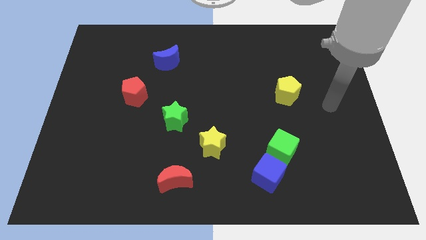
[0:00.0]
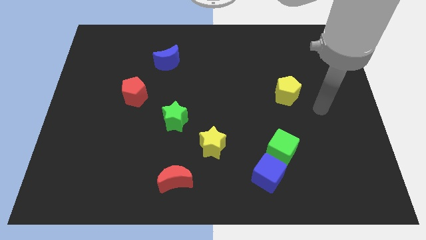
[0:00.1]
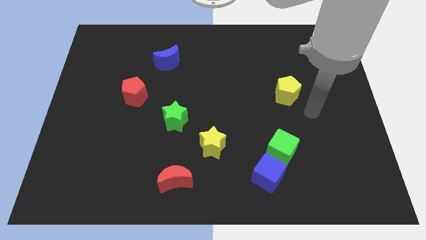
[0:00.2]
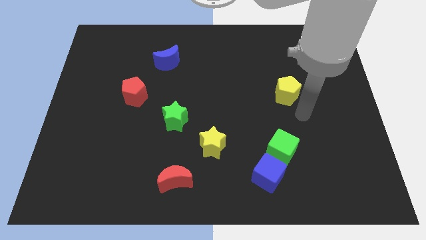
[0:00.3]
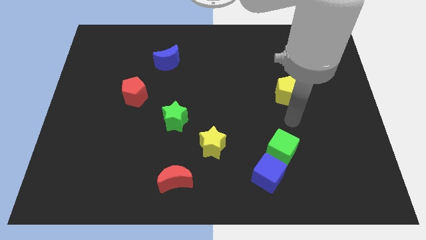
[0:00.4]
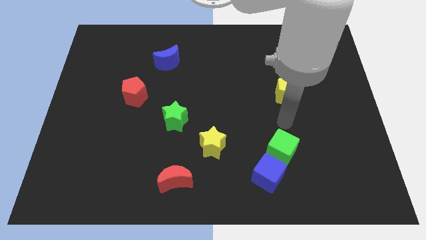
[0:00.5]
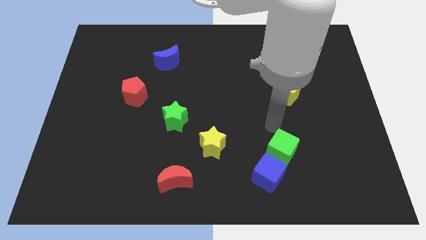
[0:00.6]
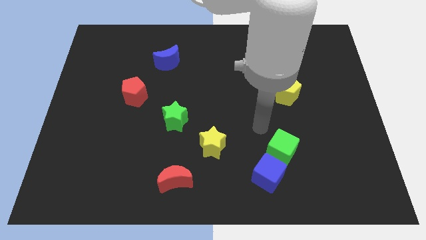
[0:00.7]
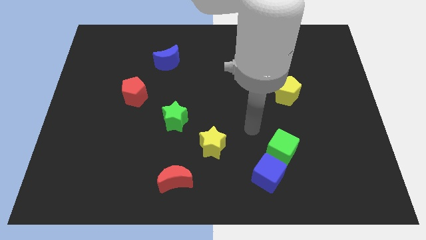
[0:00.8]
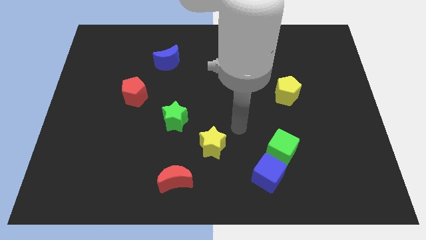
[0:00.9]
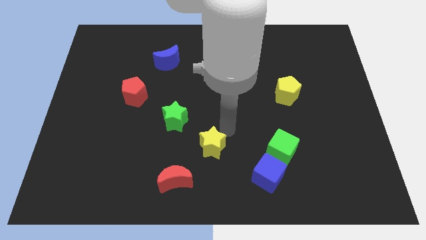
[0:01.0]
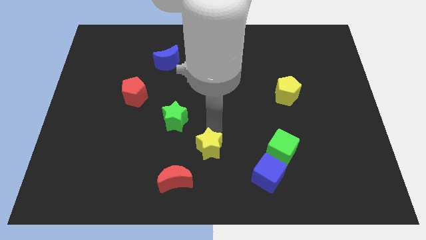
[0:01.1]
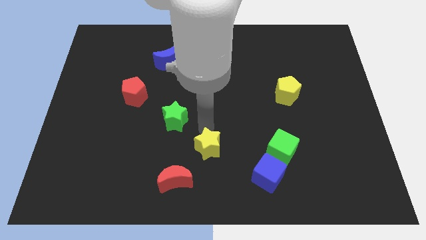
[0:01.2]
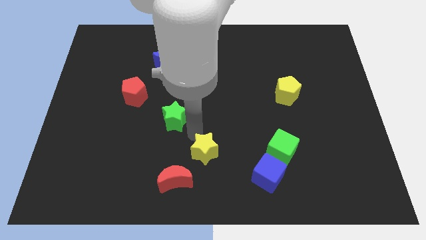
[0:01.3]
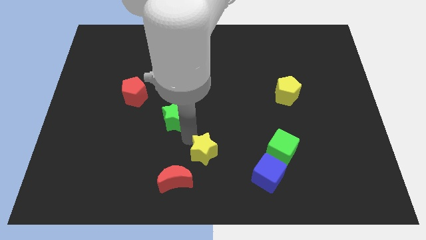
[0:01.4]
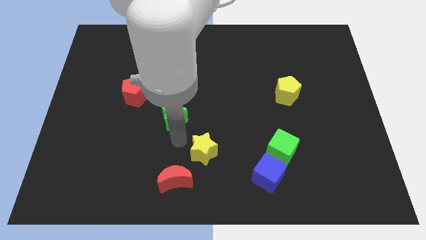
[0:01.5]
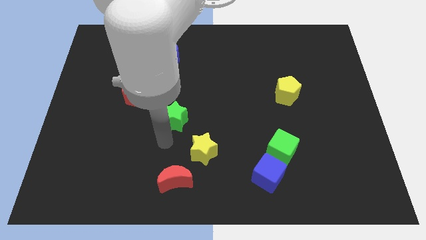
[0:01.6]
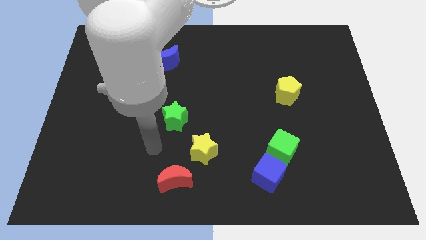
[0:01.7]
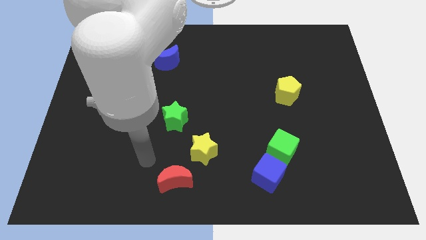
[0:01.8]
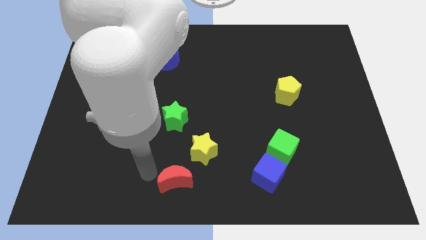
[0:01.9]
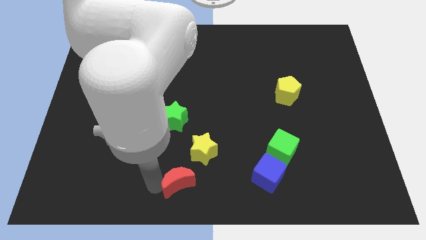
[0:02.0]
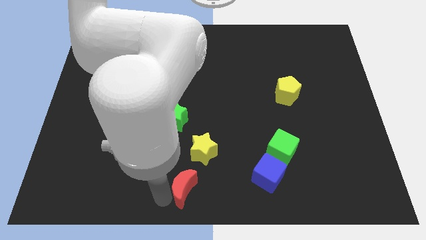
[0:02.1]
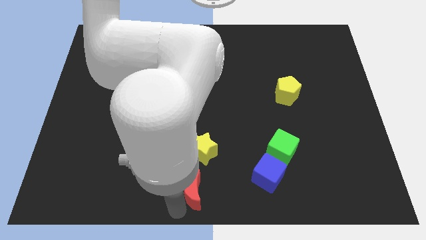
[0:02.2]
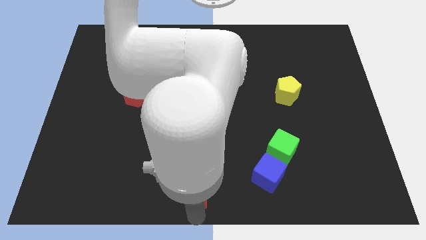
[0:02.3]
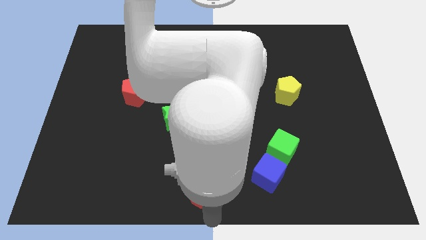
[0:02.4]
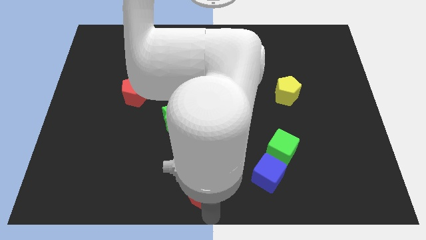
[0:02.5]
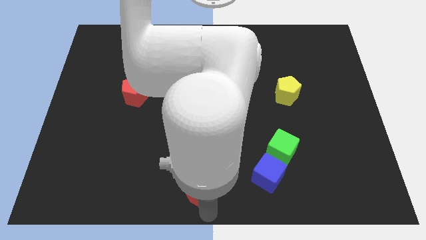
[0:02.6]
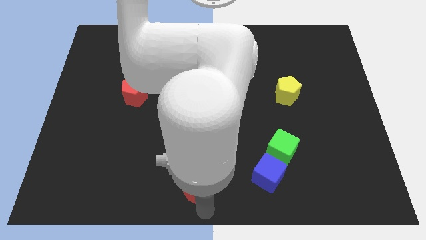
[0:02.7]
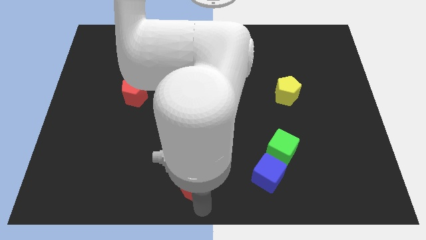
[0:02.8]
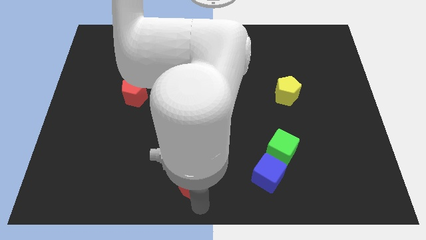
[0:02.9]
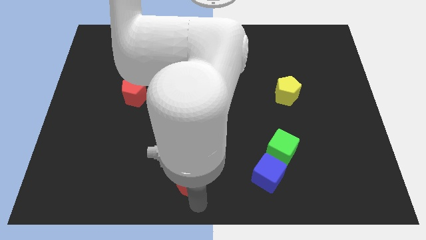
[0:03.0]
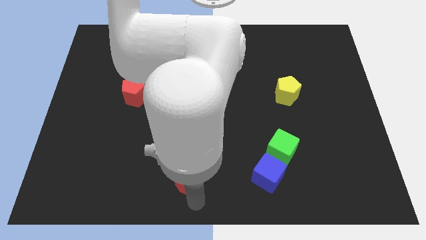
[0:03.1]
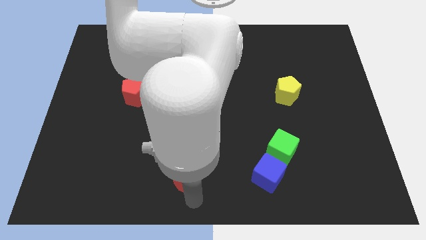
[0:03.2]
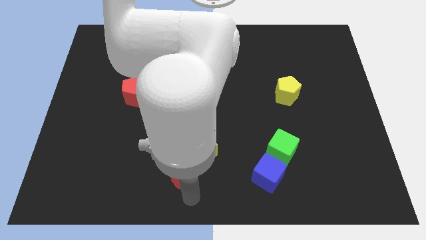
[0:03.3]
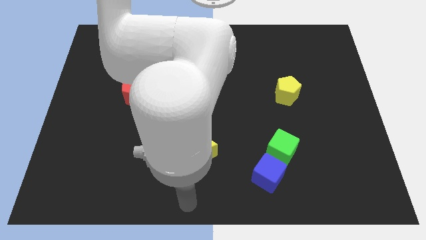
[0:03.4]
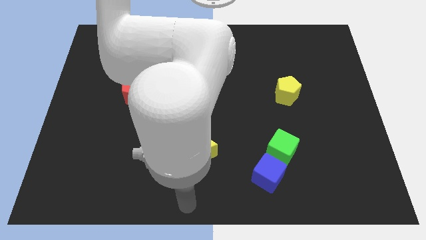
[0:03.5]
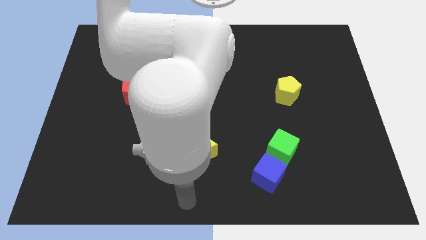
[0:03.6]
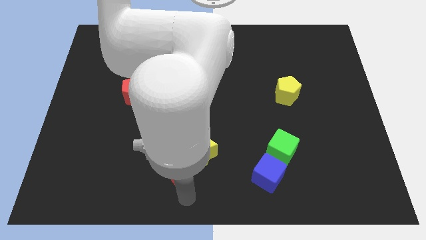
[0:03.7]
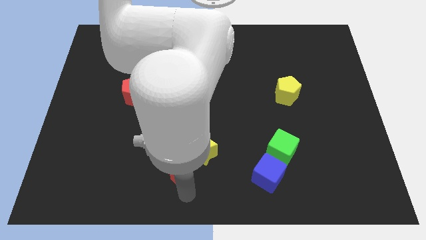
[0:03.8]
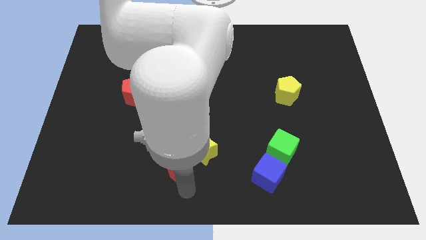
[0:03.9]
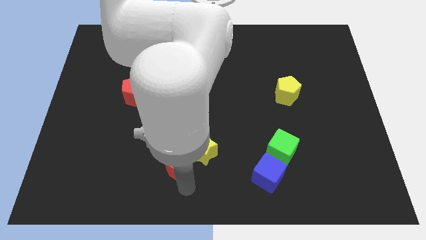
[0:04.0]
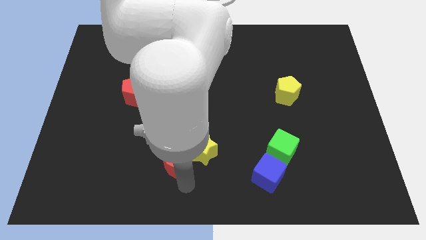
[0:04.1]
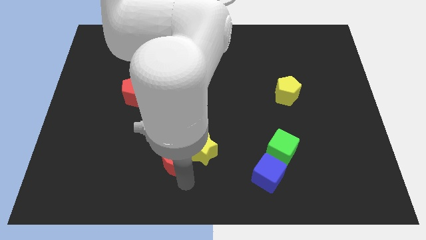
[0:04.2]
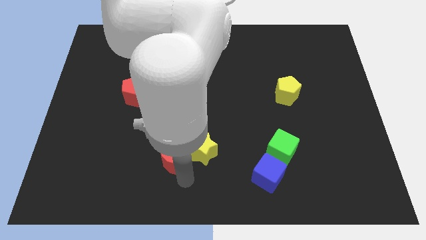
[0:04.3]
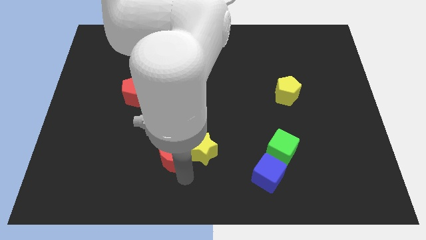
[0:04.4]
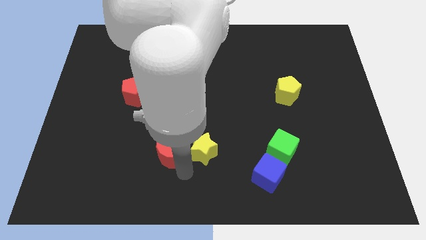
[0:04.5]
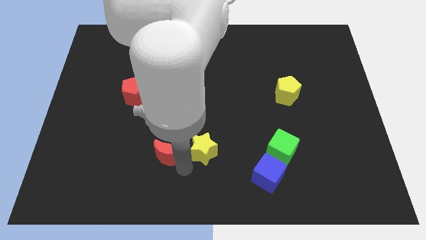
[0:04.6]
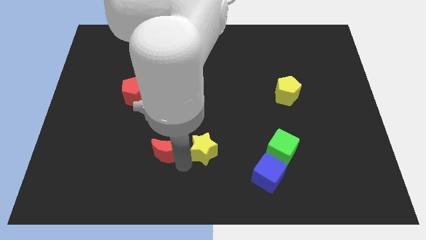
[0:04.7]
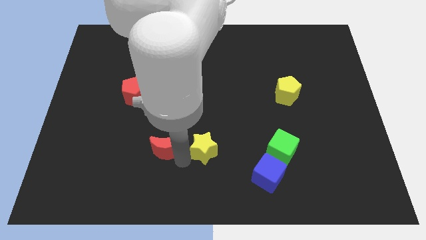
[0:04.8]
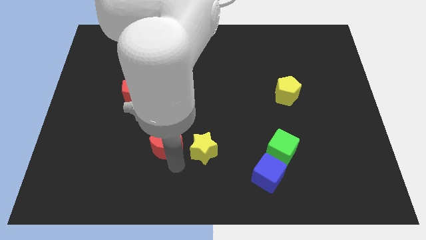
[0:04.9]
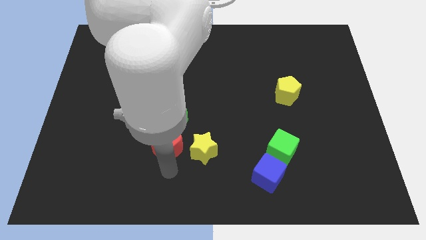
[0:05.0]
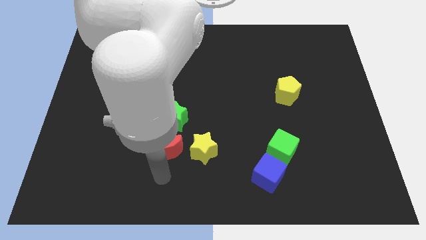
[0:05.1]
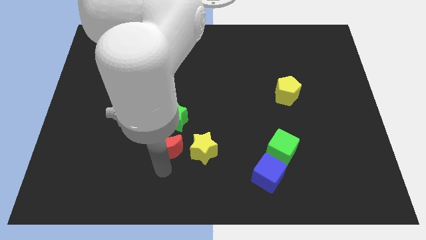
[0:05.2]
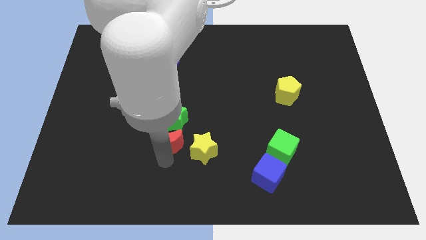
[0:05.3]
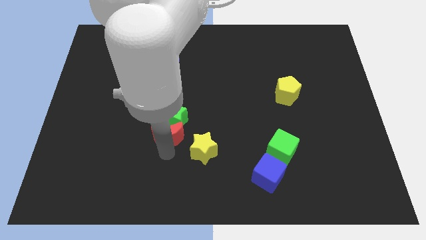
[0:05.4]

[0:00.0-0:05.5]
move the red moon to the green star

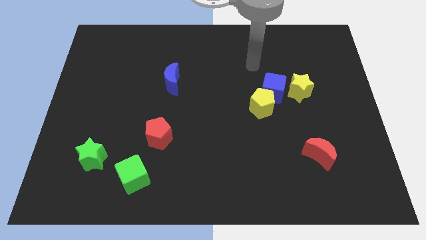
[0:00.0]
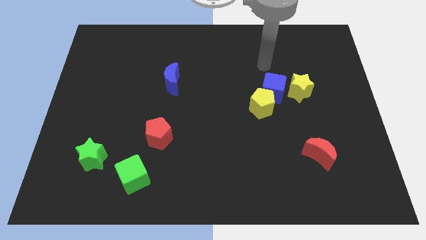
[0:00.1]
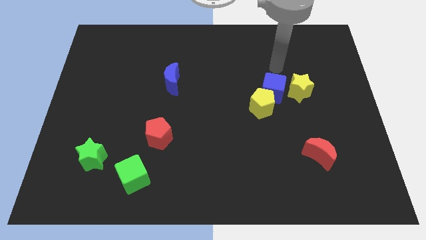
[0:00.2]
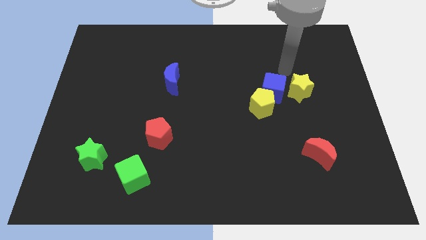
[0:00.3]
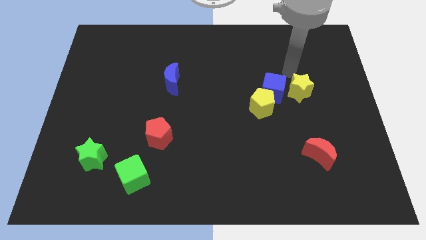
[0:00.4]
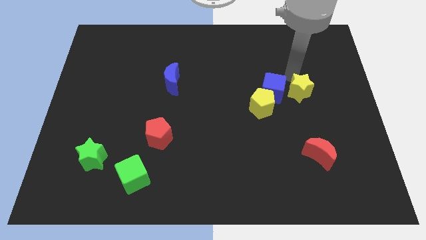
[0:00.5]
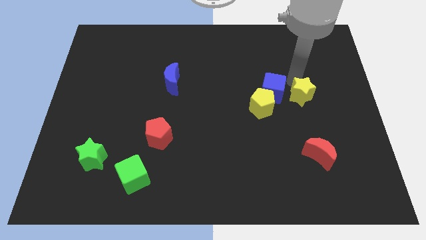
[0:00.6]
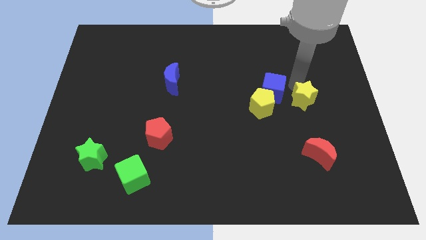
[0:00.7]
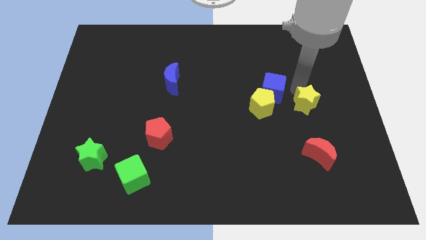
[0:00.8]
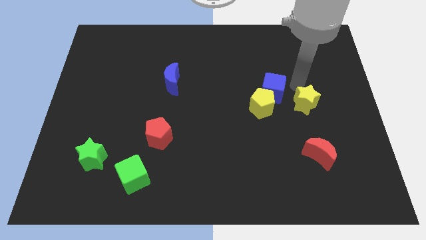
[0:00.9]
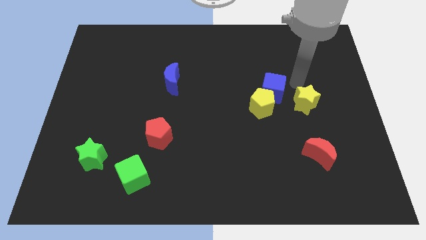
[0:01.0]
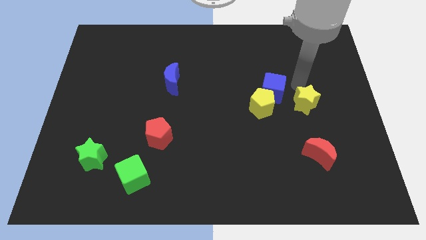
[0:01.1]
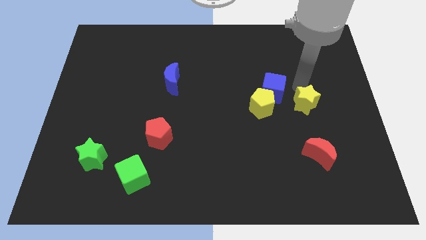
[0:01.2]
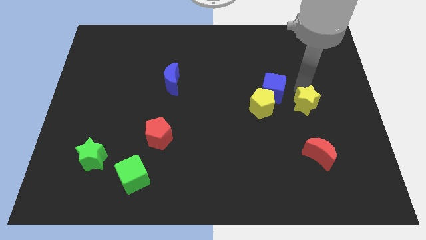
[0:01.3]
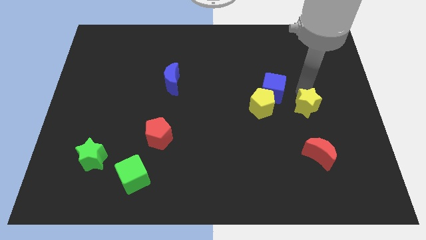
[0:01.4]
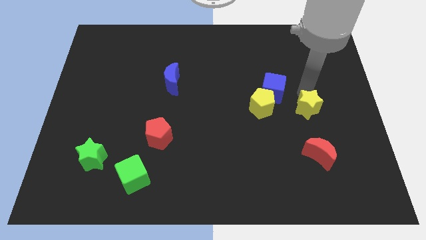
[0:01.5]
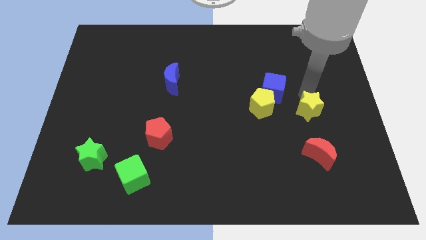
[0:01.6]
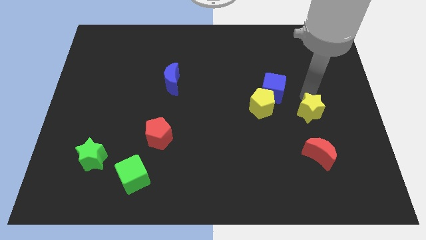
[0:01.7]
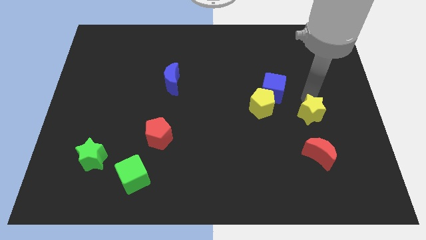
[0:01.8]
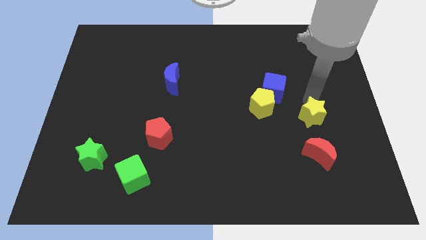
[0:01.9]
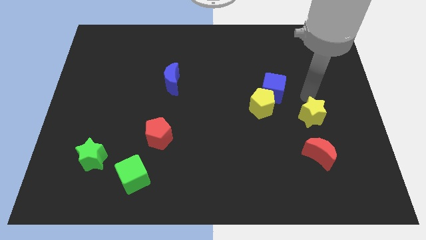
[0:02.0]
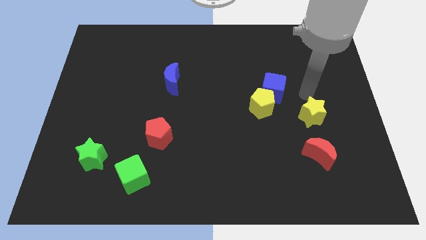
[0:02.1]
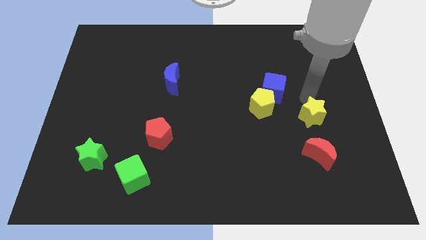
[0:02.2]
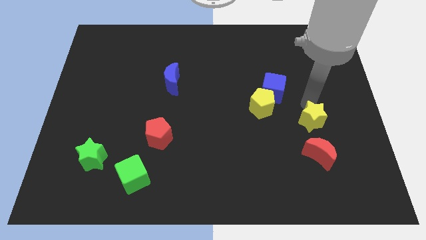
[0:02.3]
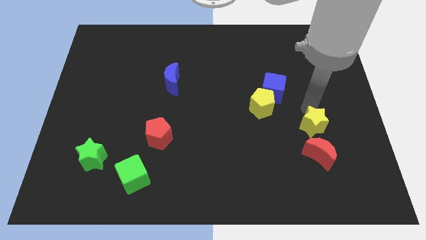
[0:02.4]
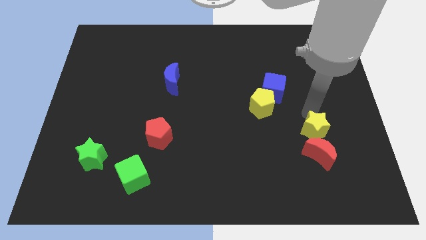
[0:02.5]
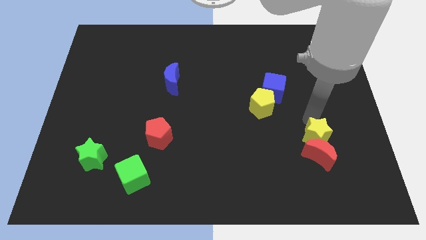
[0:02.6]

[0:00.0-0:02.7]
put the yellow star close to the red moon
